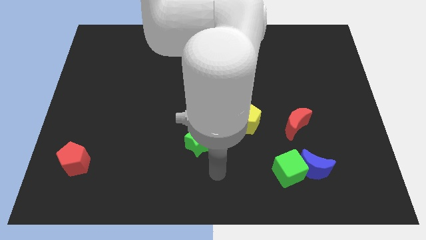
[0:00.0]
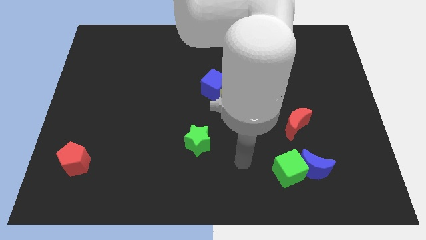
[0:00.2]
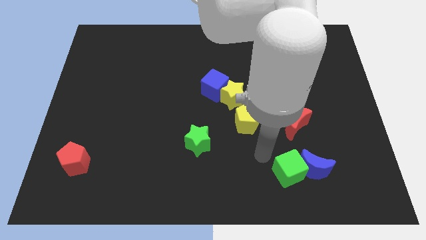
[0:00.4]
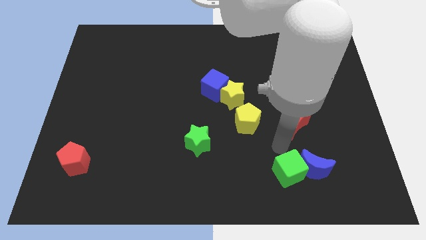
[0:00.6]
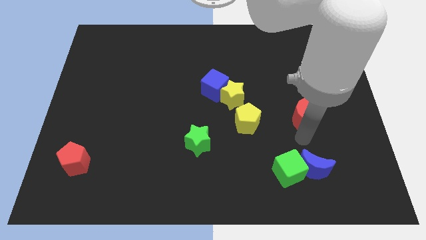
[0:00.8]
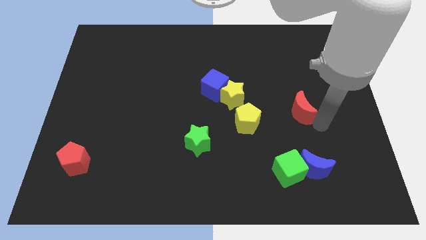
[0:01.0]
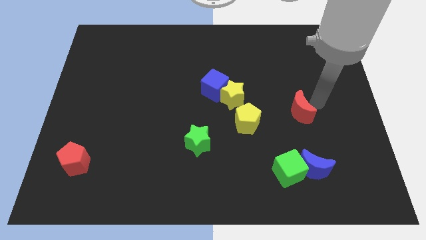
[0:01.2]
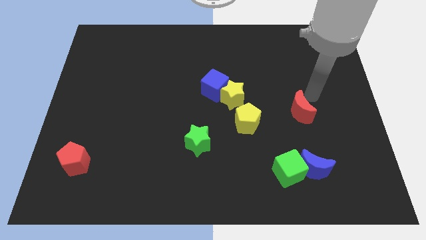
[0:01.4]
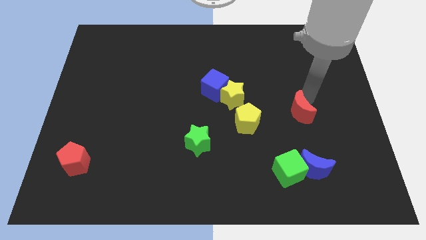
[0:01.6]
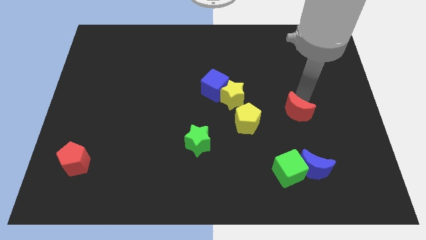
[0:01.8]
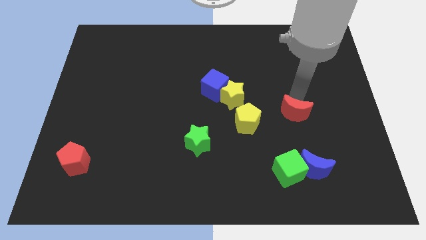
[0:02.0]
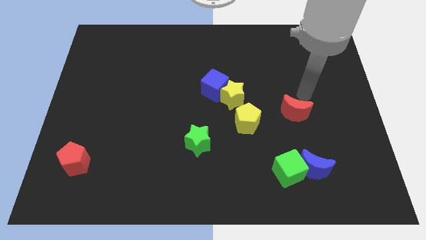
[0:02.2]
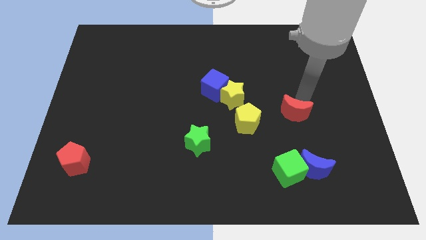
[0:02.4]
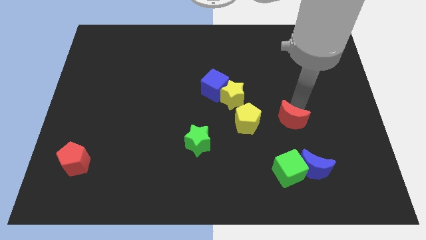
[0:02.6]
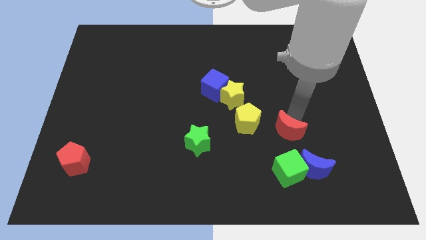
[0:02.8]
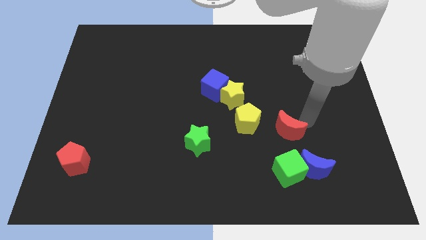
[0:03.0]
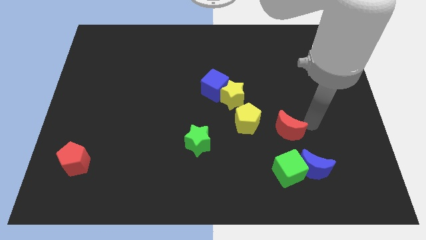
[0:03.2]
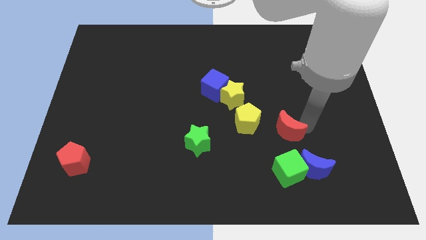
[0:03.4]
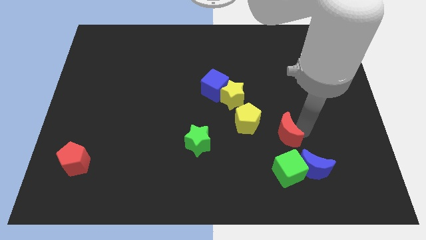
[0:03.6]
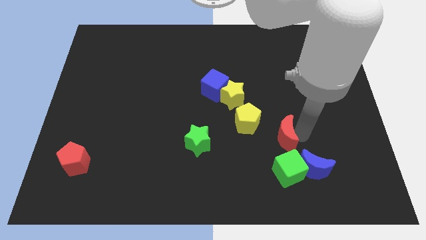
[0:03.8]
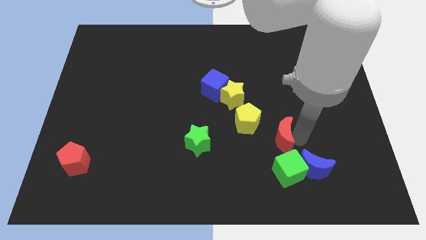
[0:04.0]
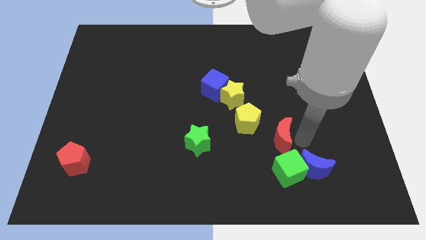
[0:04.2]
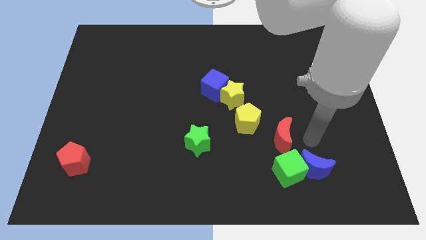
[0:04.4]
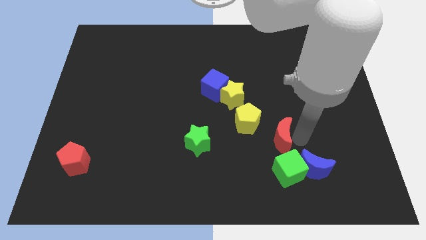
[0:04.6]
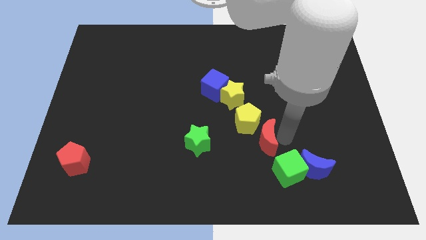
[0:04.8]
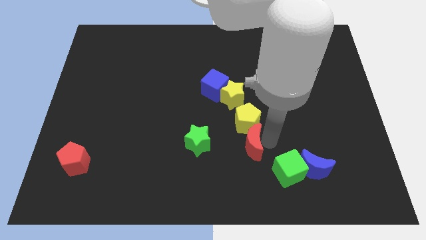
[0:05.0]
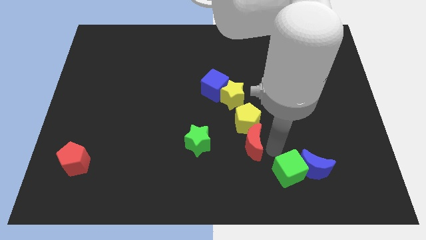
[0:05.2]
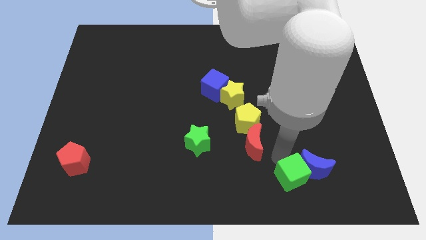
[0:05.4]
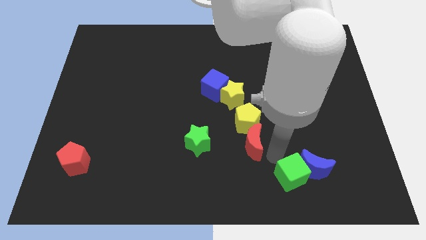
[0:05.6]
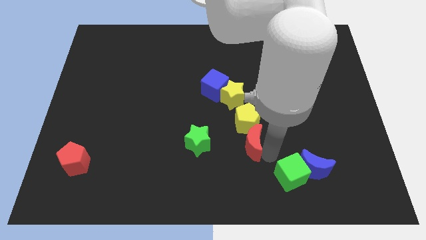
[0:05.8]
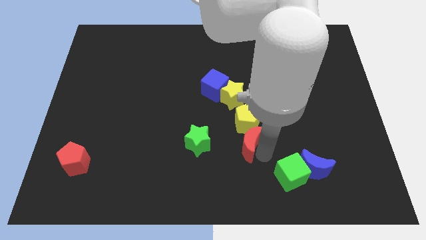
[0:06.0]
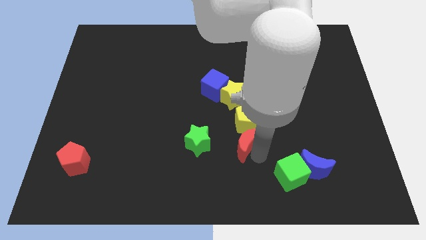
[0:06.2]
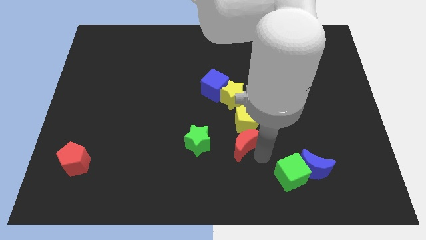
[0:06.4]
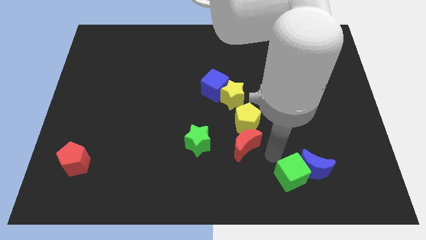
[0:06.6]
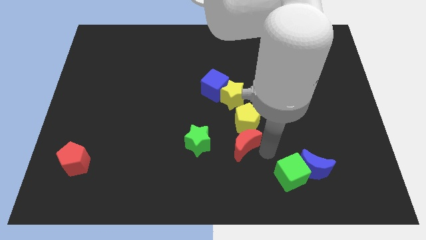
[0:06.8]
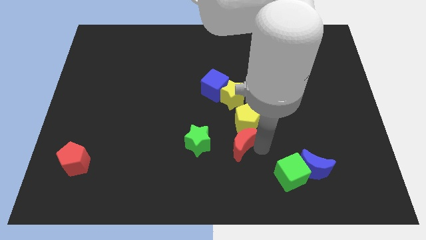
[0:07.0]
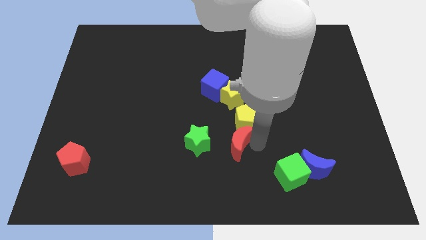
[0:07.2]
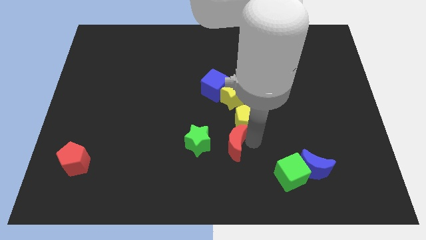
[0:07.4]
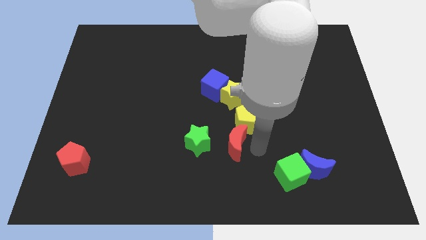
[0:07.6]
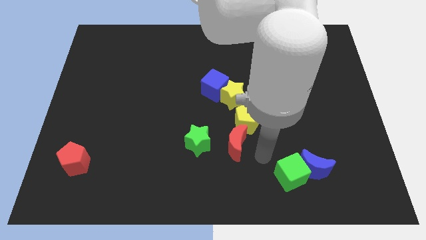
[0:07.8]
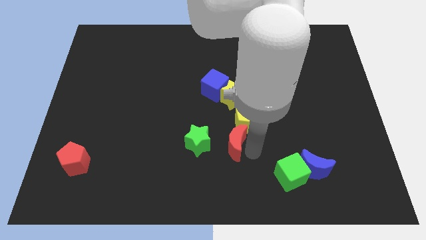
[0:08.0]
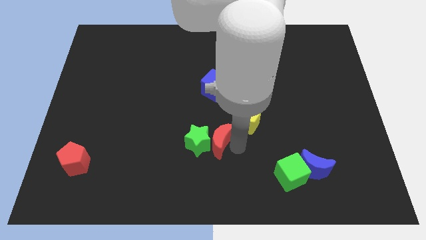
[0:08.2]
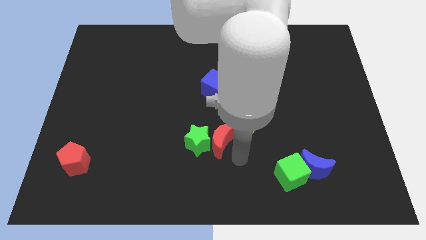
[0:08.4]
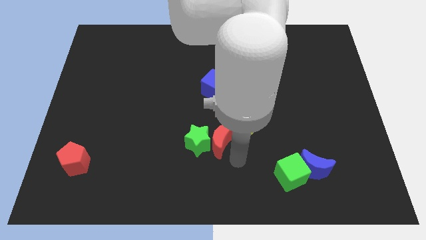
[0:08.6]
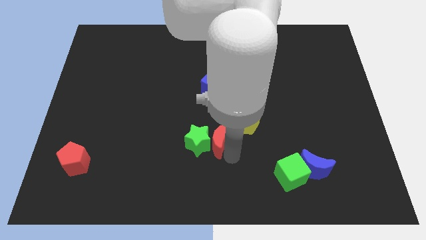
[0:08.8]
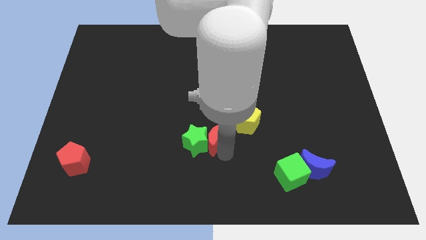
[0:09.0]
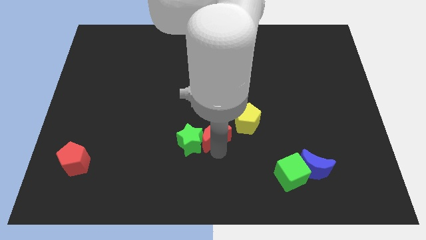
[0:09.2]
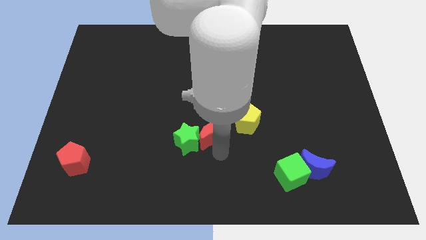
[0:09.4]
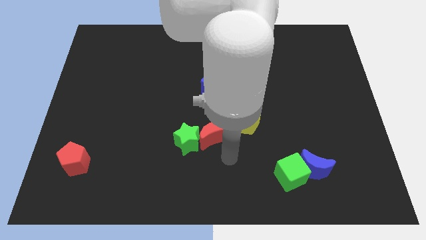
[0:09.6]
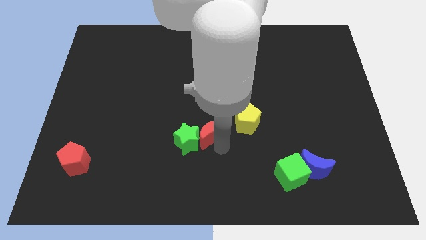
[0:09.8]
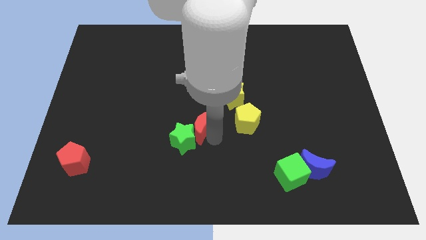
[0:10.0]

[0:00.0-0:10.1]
push the red moon to the left

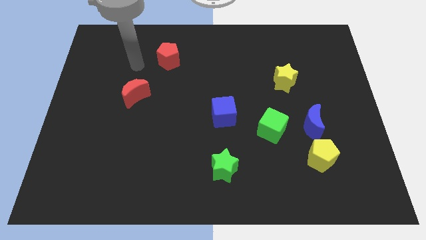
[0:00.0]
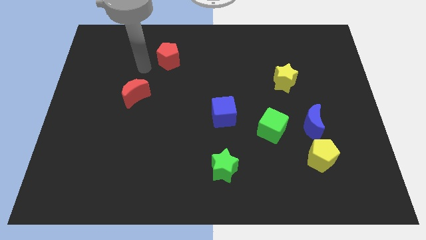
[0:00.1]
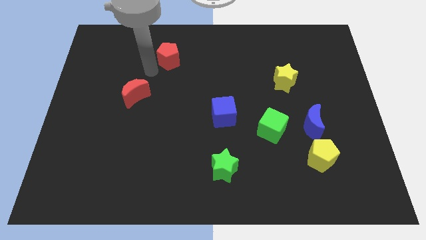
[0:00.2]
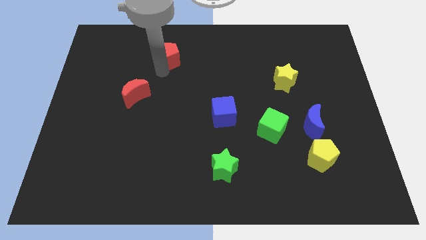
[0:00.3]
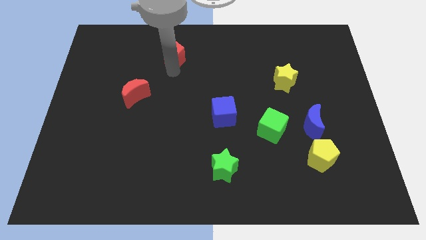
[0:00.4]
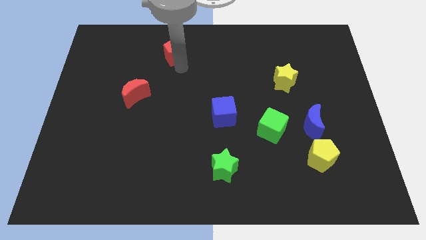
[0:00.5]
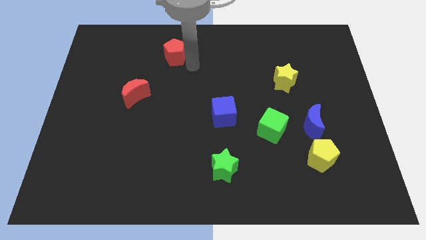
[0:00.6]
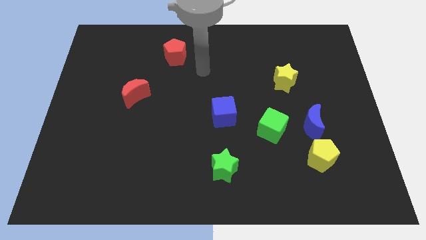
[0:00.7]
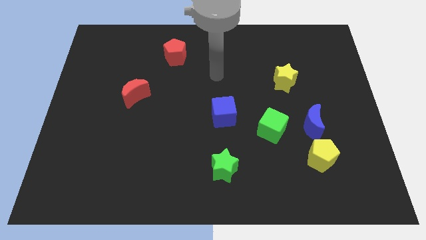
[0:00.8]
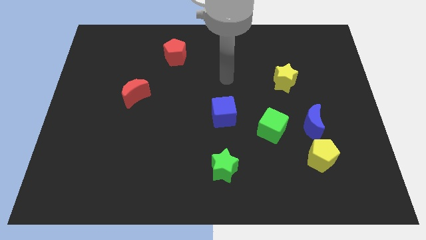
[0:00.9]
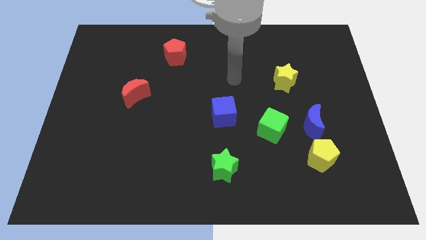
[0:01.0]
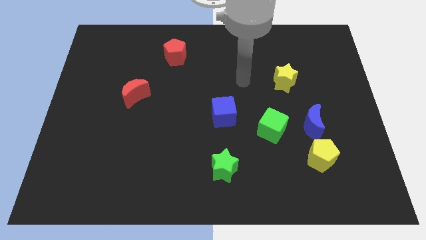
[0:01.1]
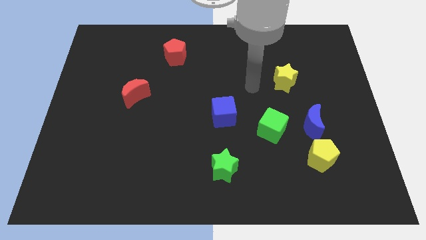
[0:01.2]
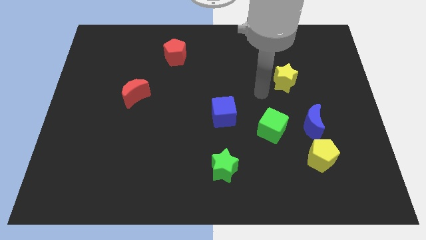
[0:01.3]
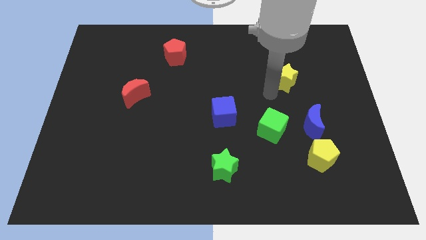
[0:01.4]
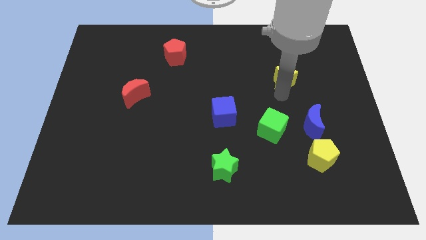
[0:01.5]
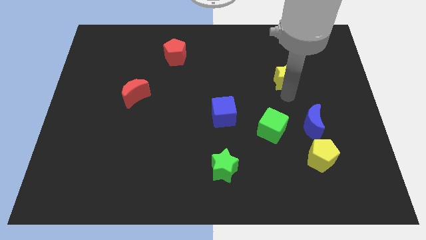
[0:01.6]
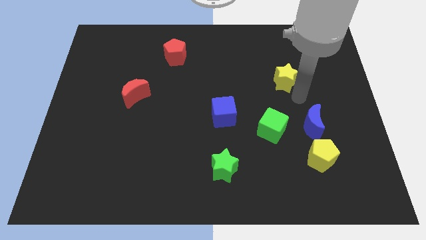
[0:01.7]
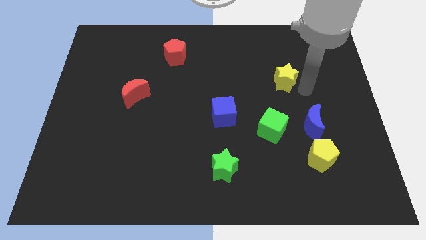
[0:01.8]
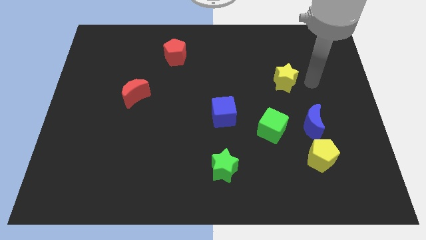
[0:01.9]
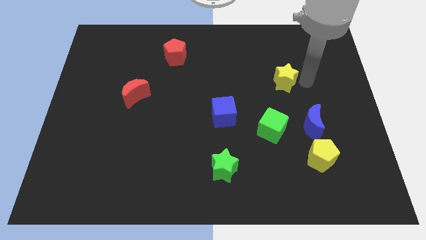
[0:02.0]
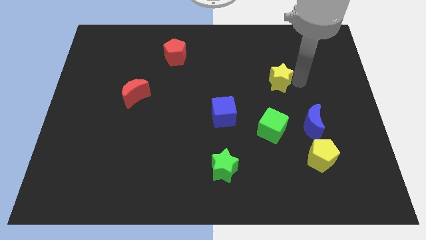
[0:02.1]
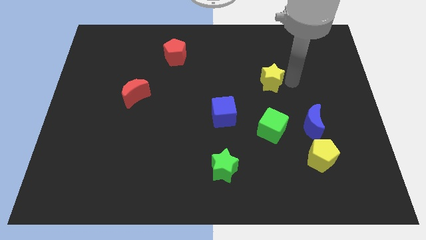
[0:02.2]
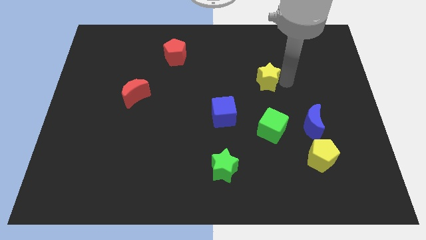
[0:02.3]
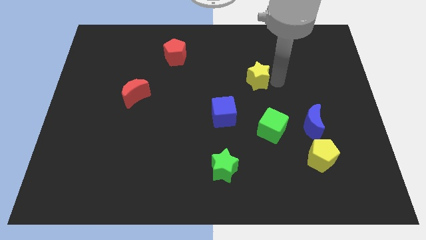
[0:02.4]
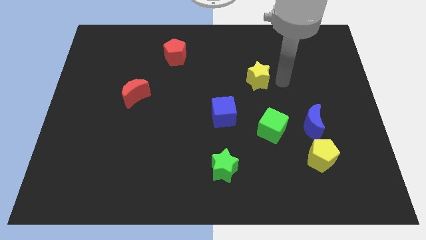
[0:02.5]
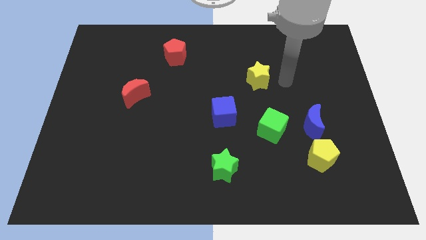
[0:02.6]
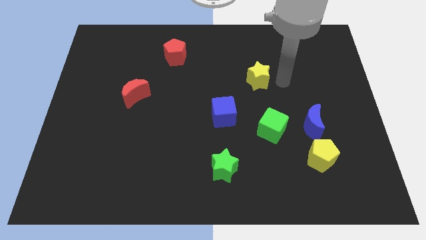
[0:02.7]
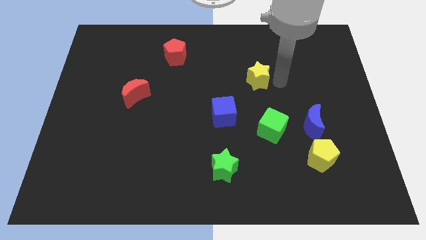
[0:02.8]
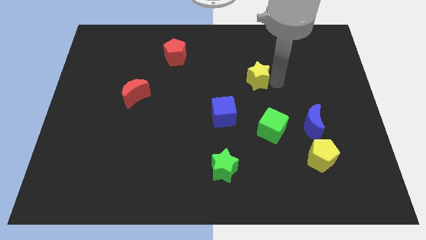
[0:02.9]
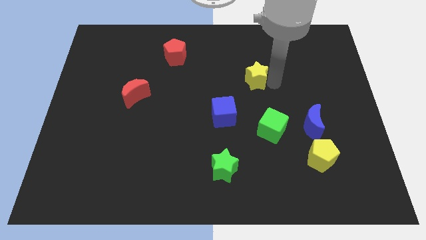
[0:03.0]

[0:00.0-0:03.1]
push the yellow star a bit left
